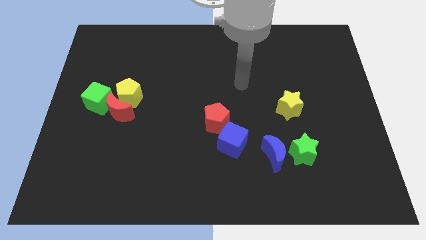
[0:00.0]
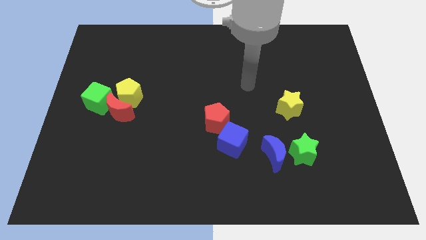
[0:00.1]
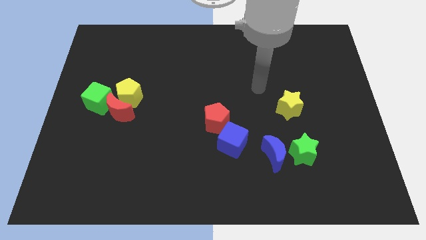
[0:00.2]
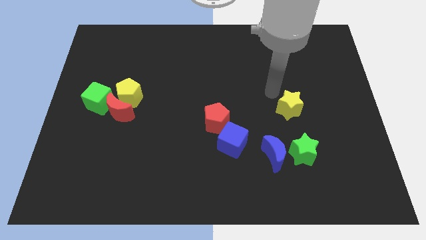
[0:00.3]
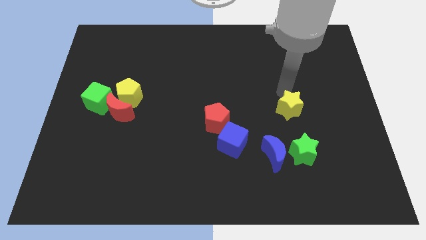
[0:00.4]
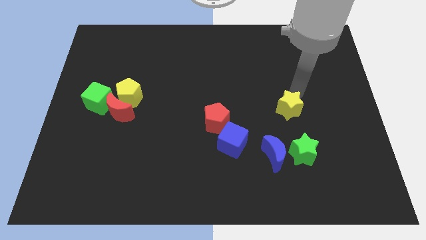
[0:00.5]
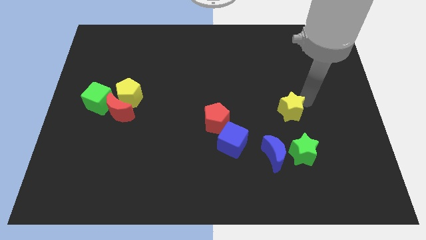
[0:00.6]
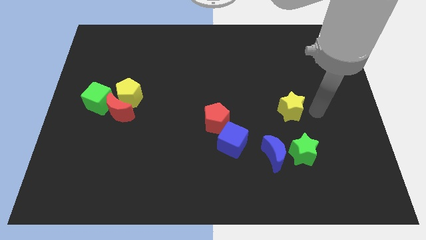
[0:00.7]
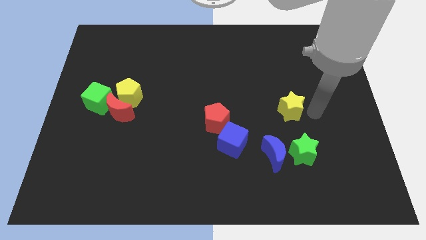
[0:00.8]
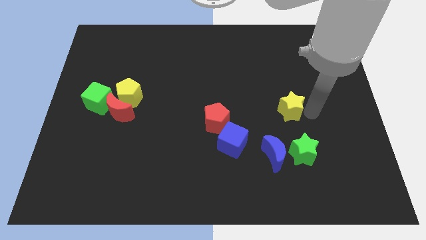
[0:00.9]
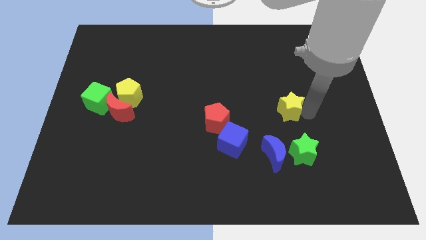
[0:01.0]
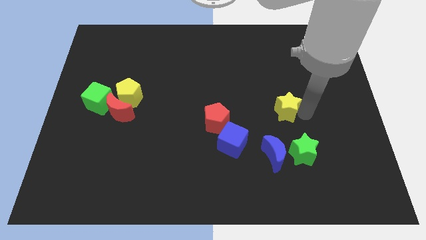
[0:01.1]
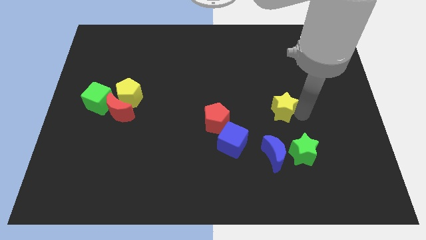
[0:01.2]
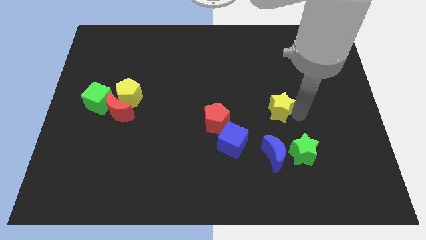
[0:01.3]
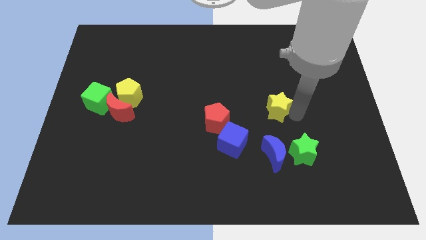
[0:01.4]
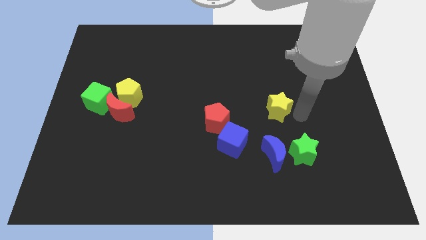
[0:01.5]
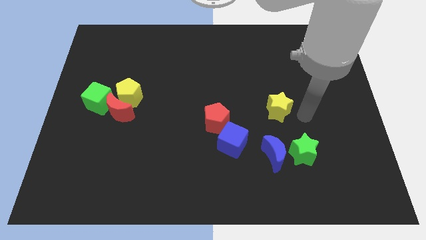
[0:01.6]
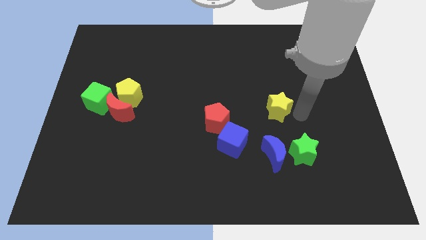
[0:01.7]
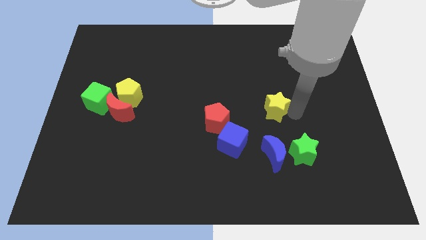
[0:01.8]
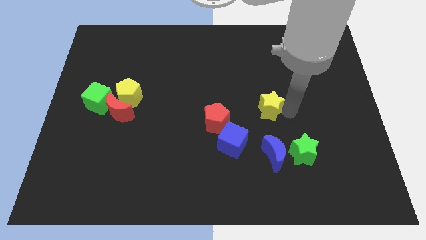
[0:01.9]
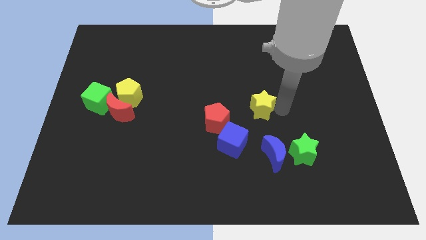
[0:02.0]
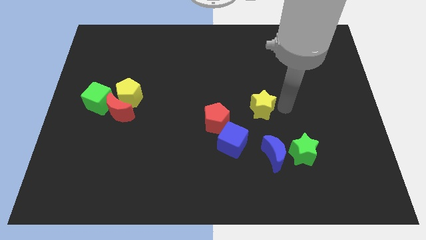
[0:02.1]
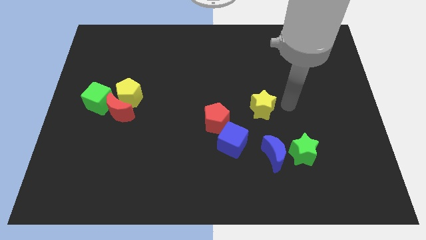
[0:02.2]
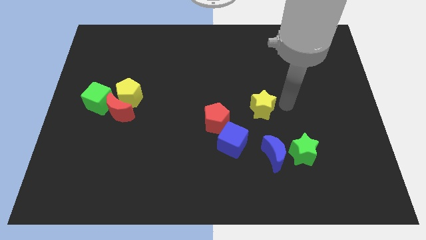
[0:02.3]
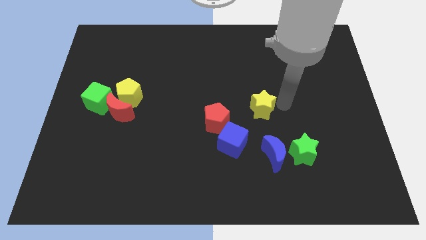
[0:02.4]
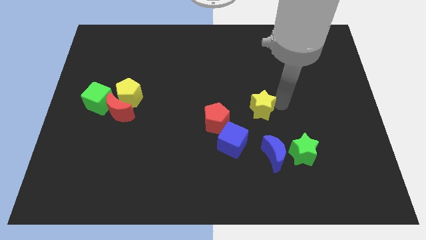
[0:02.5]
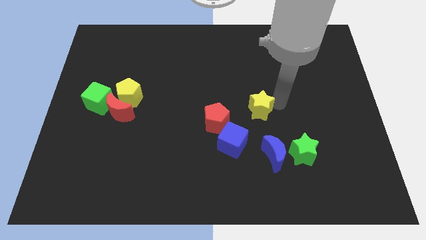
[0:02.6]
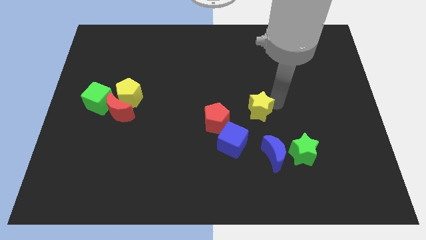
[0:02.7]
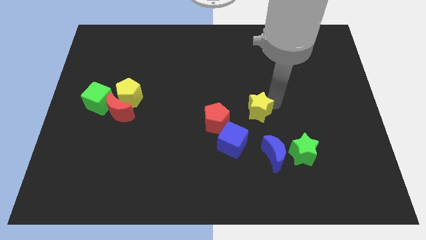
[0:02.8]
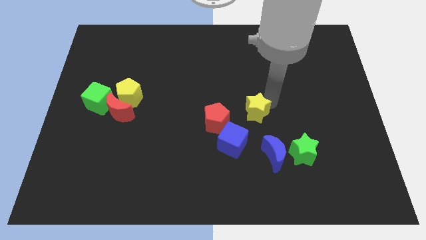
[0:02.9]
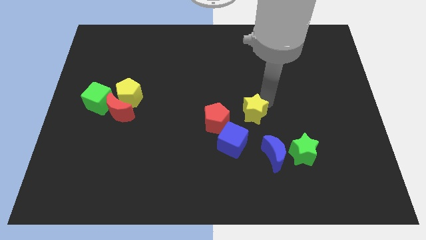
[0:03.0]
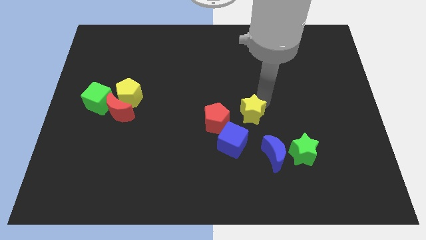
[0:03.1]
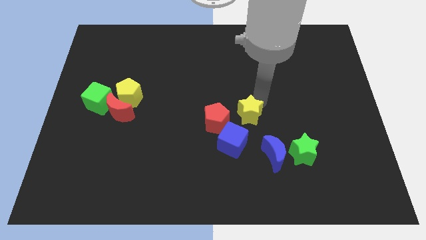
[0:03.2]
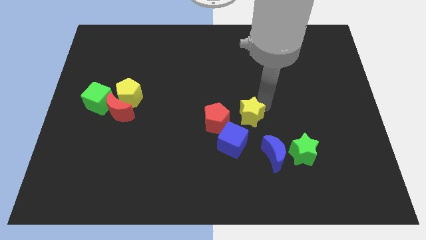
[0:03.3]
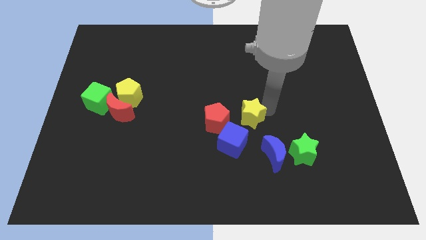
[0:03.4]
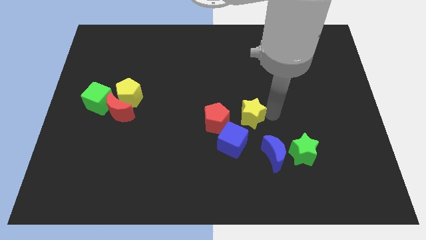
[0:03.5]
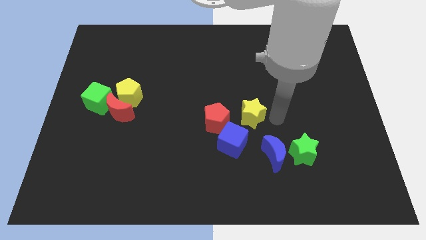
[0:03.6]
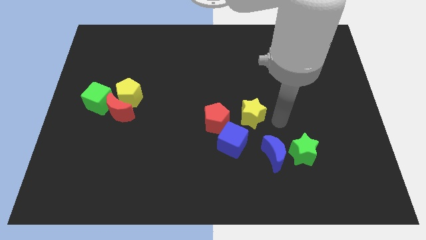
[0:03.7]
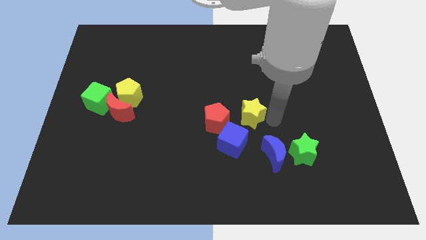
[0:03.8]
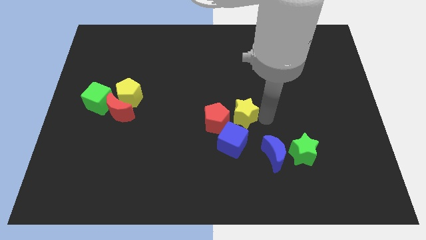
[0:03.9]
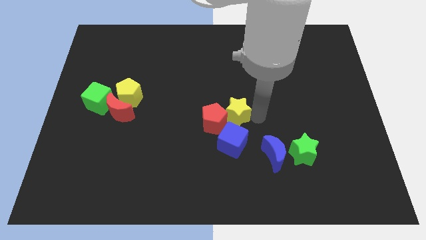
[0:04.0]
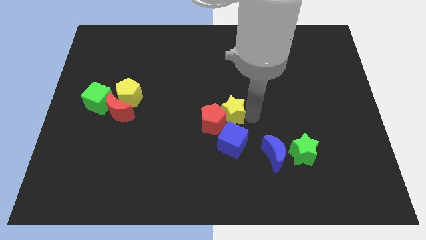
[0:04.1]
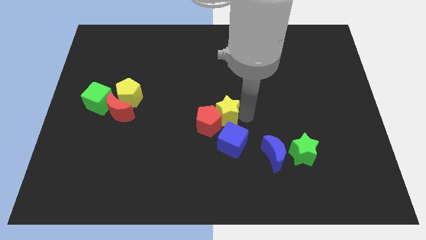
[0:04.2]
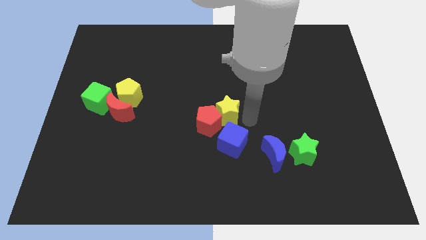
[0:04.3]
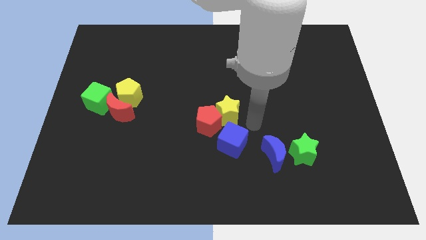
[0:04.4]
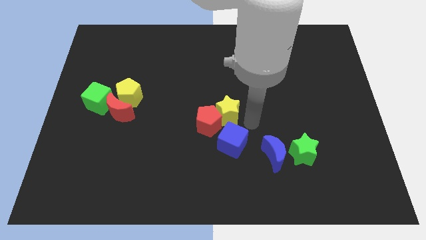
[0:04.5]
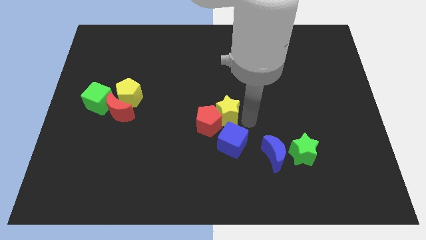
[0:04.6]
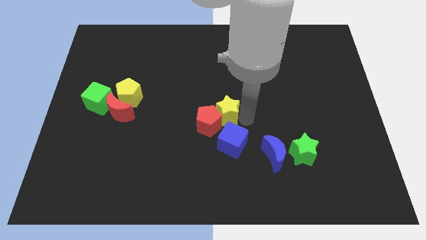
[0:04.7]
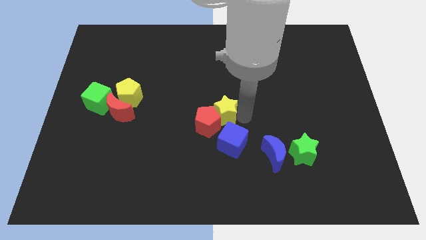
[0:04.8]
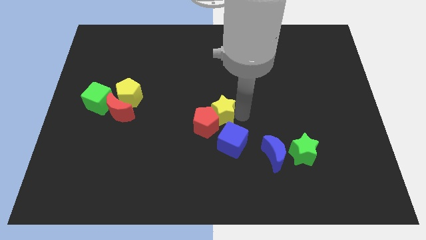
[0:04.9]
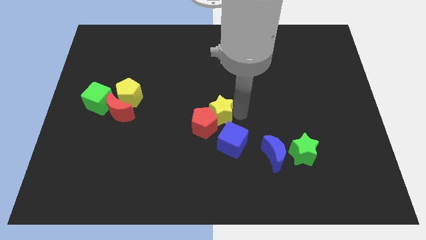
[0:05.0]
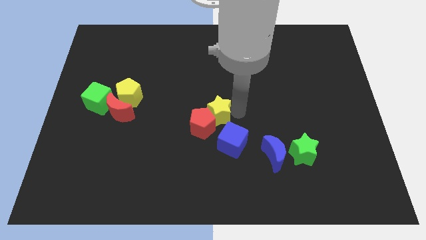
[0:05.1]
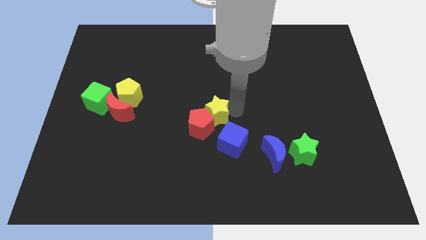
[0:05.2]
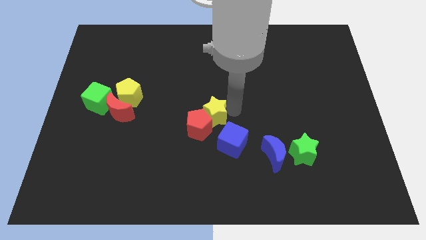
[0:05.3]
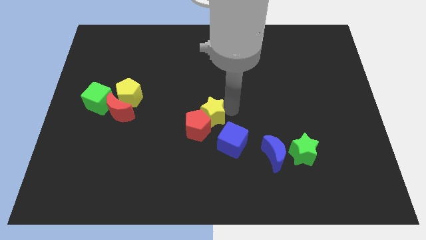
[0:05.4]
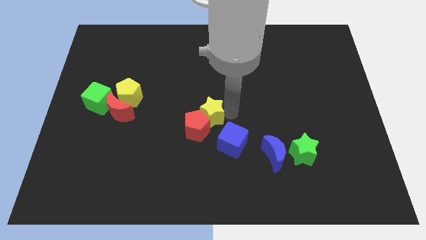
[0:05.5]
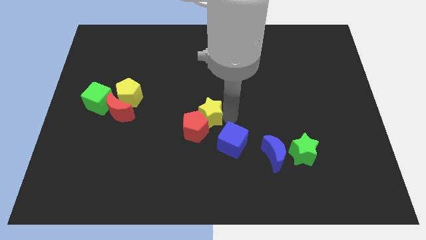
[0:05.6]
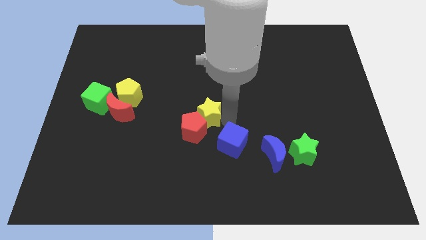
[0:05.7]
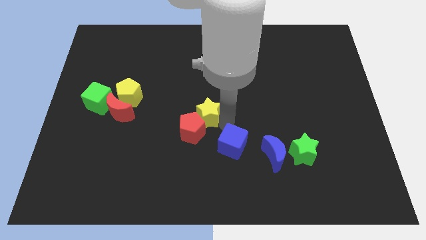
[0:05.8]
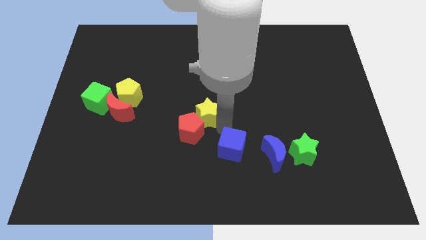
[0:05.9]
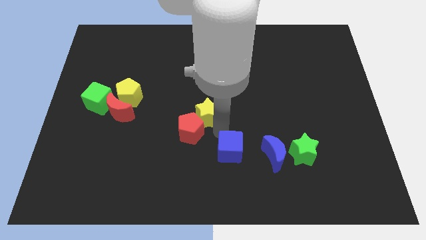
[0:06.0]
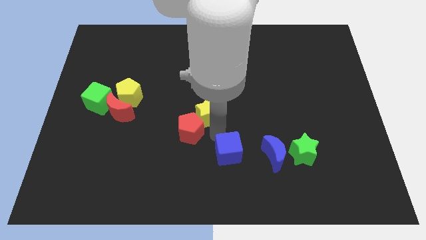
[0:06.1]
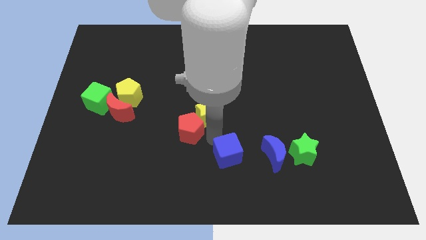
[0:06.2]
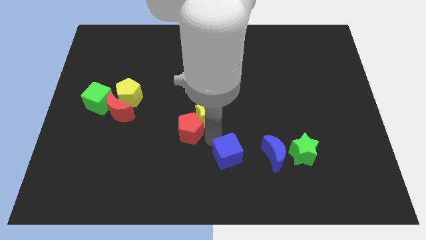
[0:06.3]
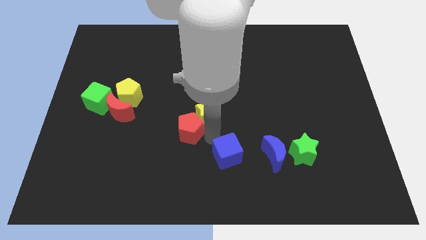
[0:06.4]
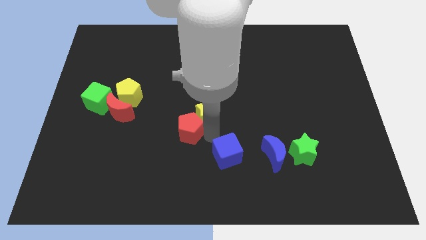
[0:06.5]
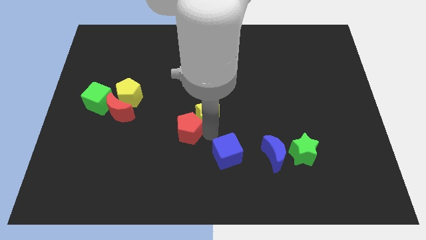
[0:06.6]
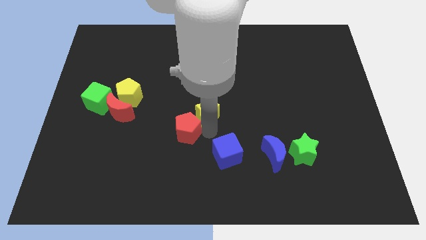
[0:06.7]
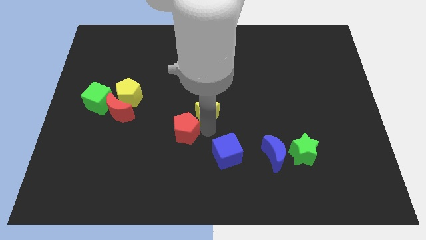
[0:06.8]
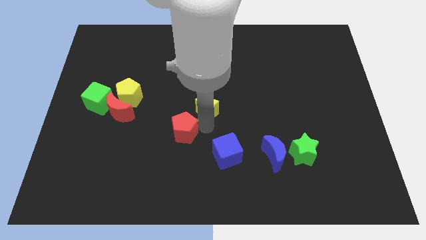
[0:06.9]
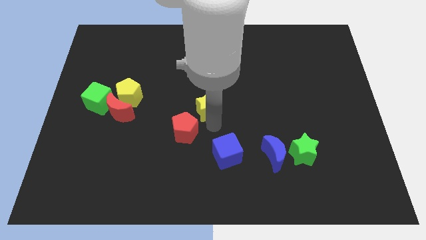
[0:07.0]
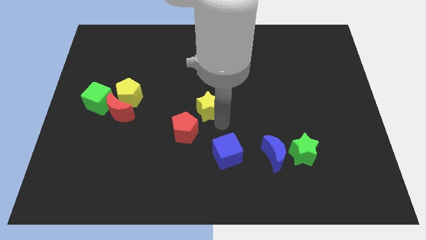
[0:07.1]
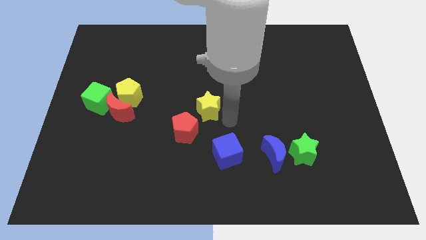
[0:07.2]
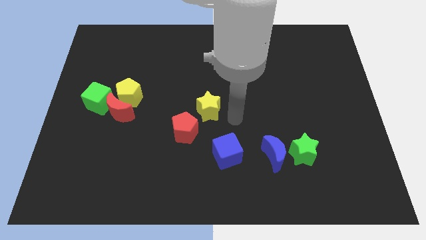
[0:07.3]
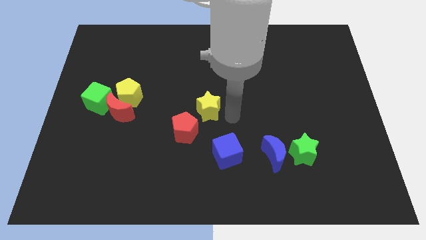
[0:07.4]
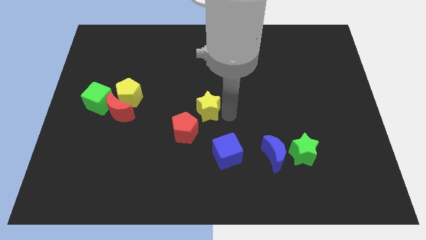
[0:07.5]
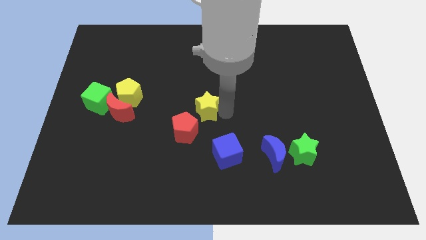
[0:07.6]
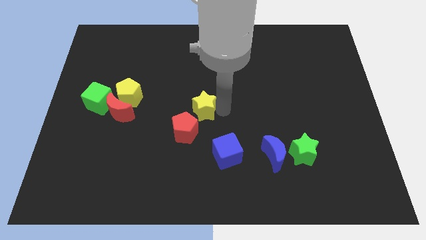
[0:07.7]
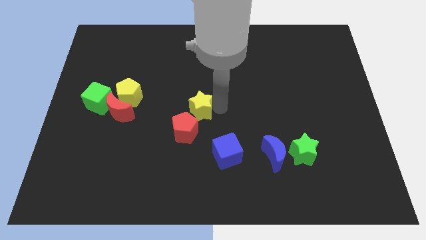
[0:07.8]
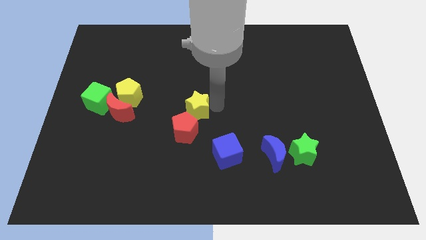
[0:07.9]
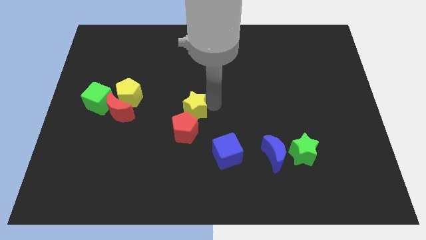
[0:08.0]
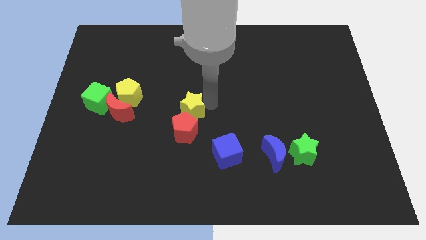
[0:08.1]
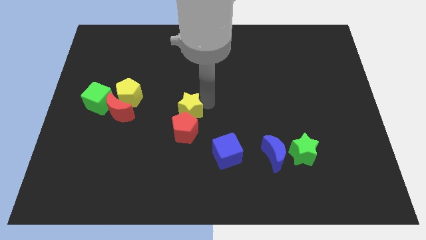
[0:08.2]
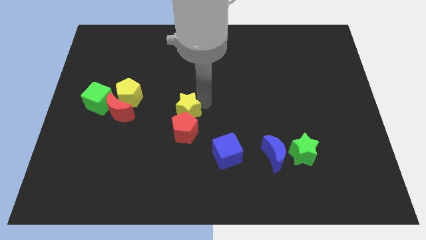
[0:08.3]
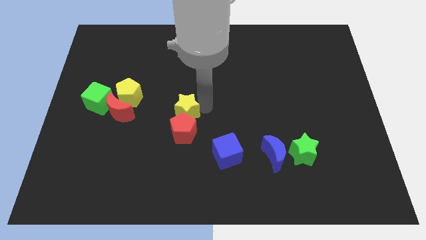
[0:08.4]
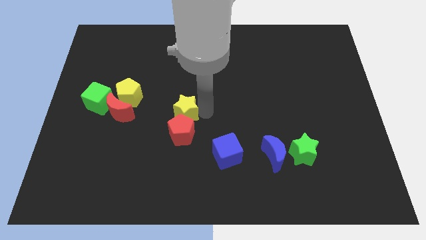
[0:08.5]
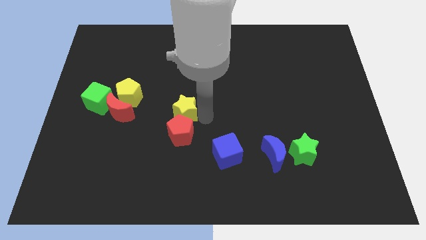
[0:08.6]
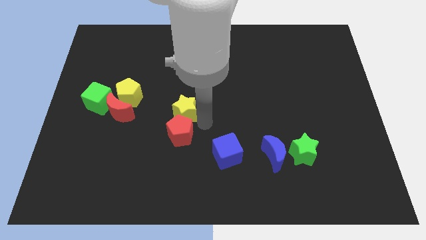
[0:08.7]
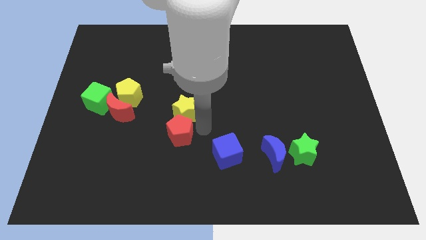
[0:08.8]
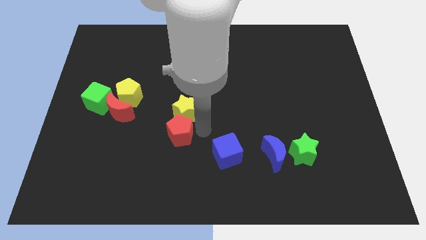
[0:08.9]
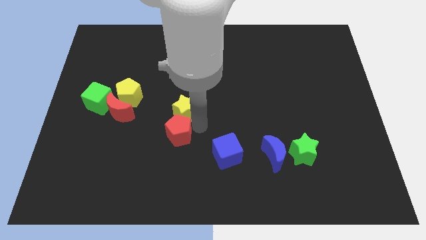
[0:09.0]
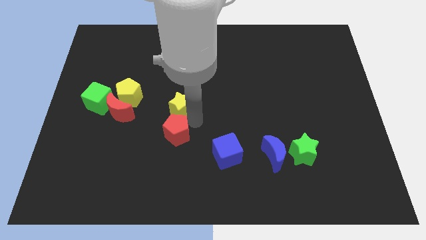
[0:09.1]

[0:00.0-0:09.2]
put the yellow star just right of the yellow pentagon
